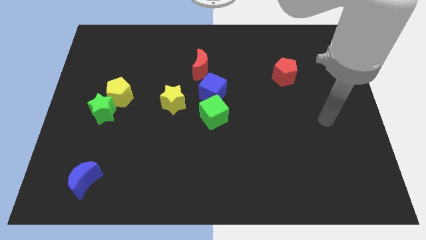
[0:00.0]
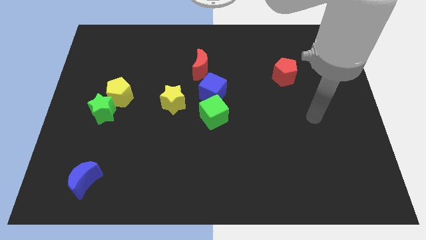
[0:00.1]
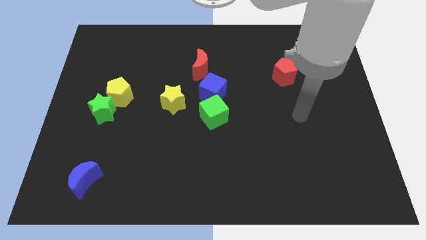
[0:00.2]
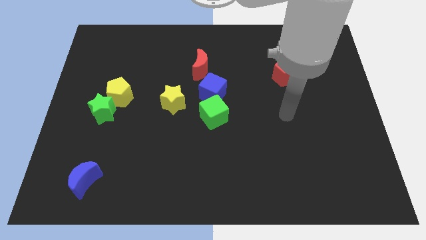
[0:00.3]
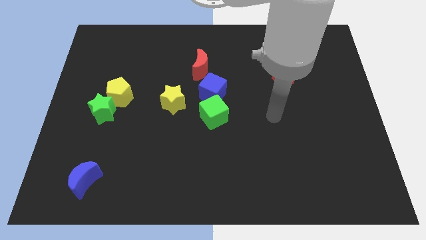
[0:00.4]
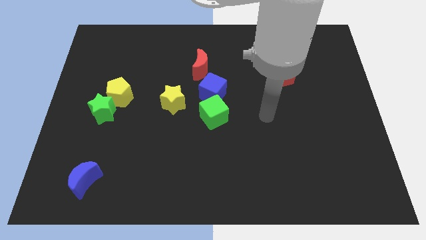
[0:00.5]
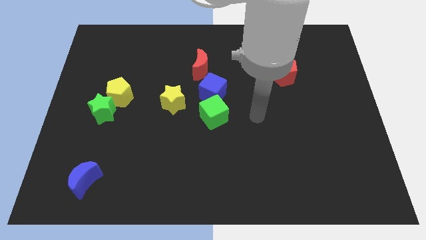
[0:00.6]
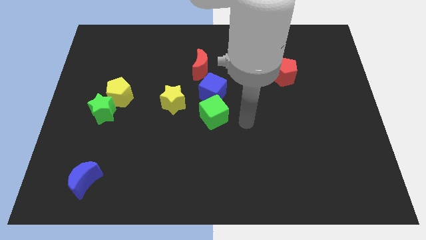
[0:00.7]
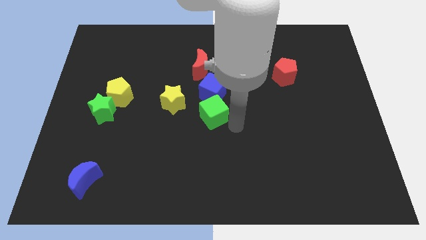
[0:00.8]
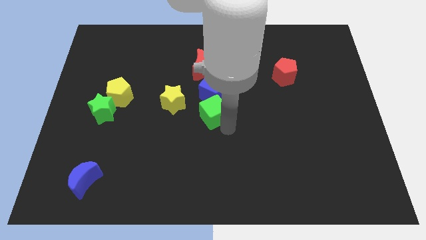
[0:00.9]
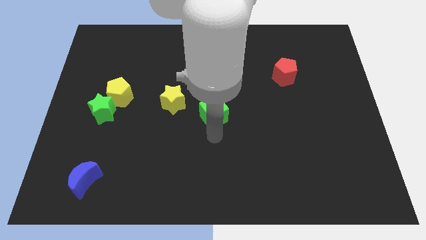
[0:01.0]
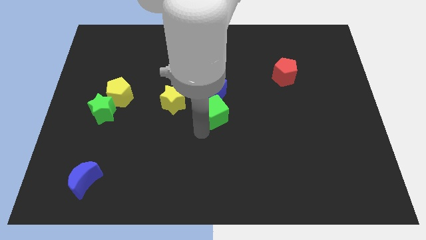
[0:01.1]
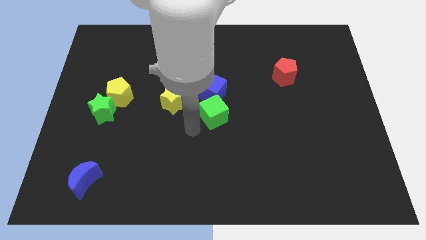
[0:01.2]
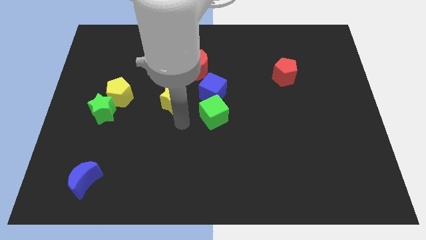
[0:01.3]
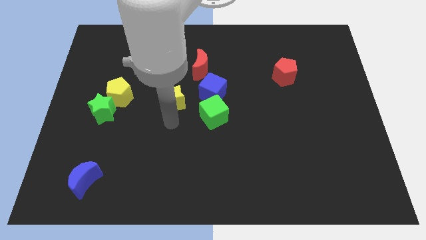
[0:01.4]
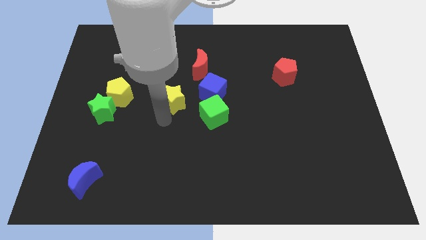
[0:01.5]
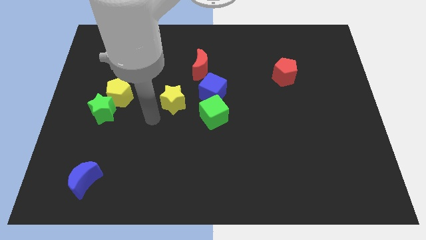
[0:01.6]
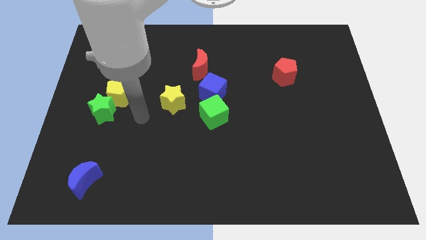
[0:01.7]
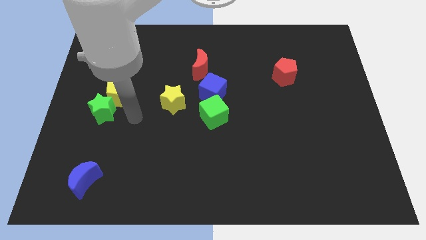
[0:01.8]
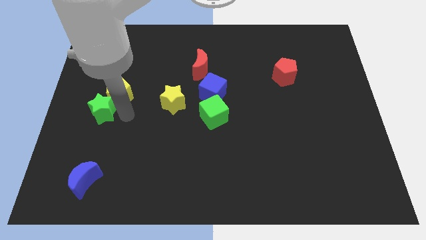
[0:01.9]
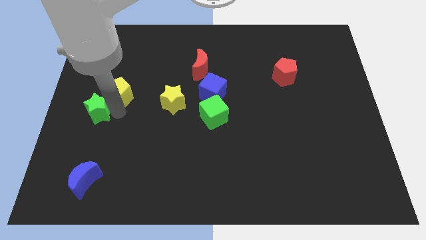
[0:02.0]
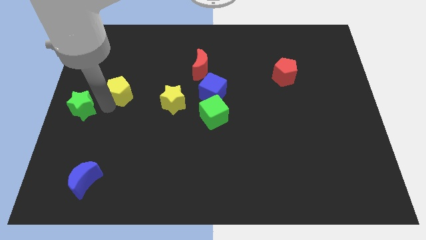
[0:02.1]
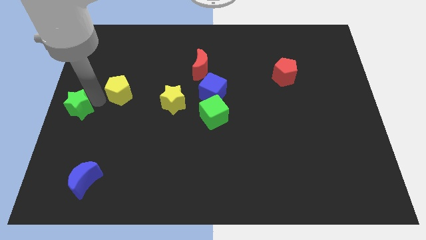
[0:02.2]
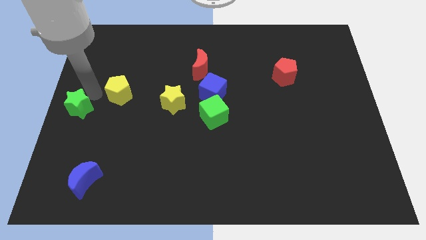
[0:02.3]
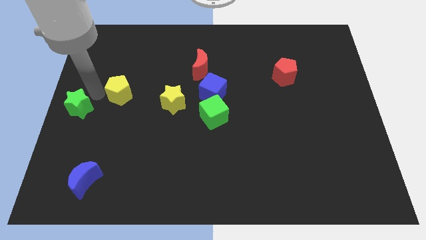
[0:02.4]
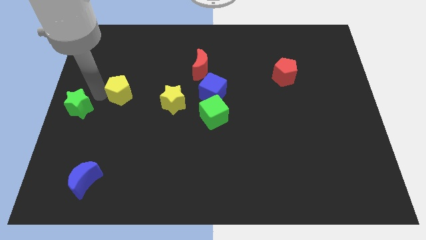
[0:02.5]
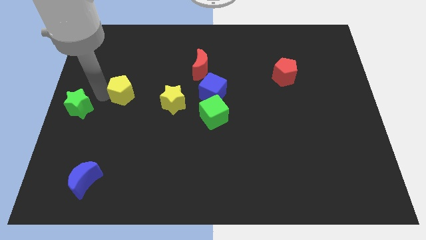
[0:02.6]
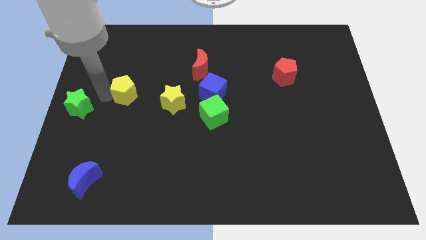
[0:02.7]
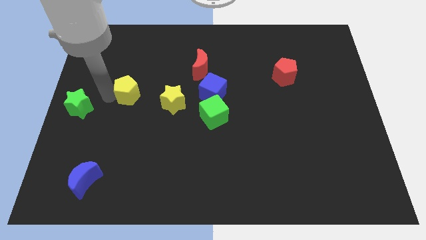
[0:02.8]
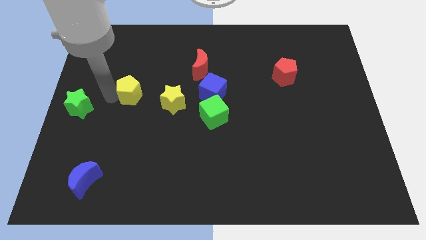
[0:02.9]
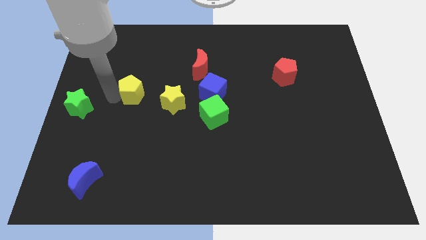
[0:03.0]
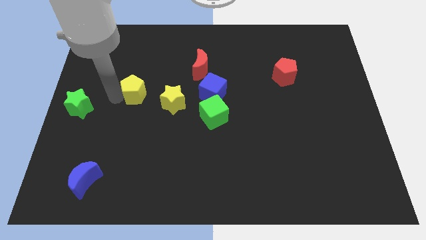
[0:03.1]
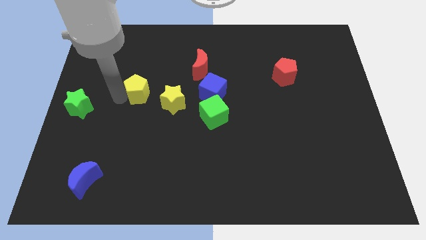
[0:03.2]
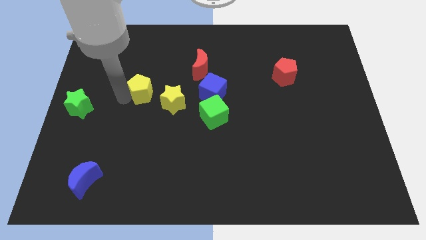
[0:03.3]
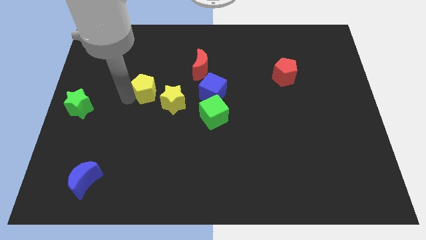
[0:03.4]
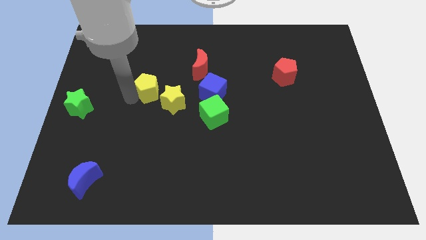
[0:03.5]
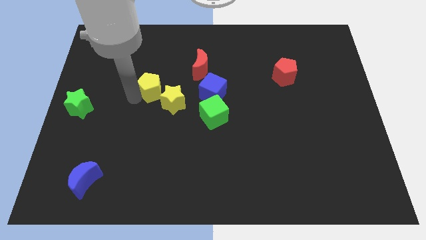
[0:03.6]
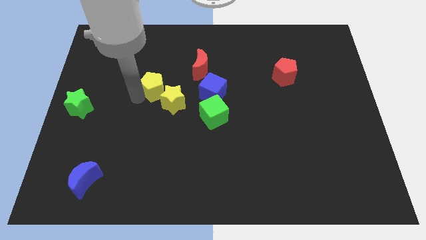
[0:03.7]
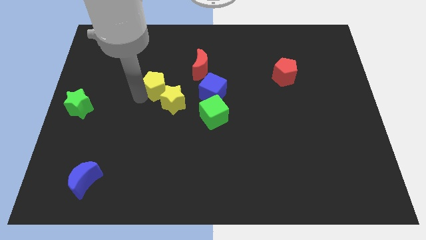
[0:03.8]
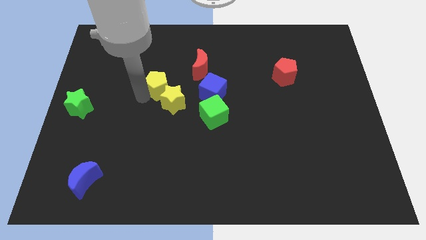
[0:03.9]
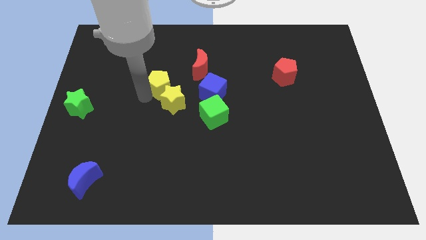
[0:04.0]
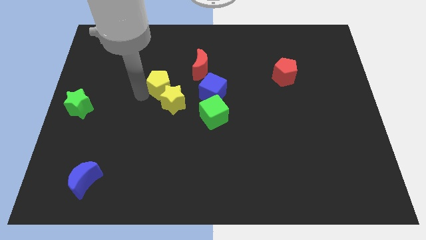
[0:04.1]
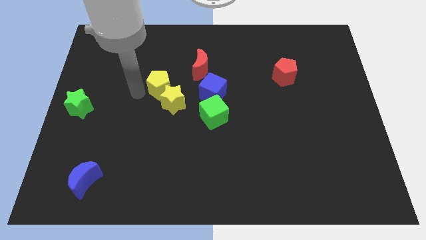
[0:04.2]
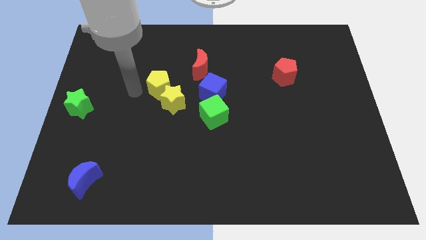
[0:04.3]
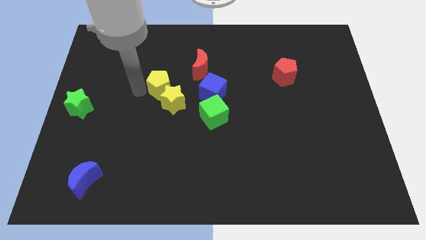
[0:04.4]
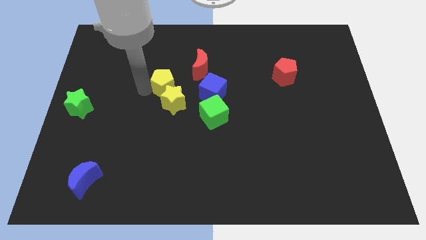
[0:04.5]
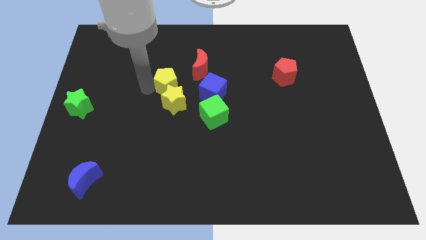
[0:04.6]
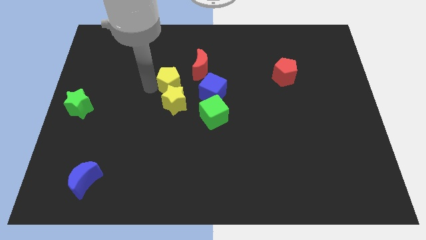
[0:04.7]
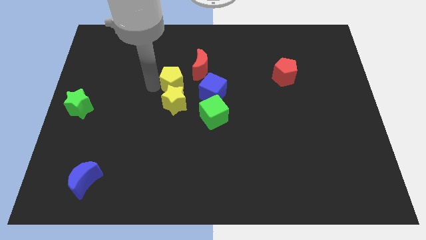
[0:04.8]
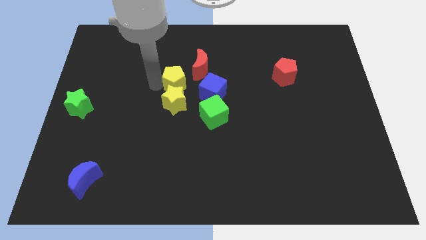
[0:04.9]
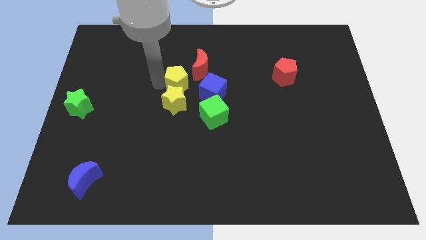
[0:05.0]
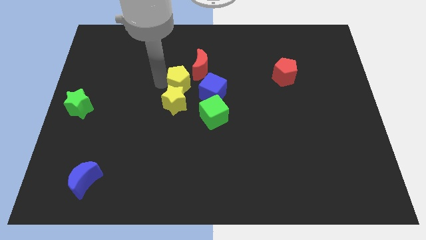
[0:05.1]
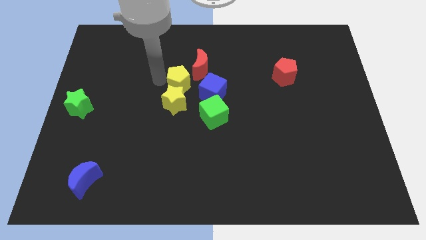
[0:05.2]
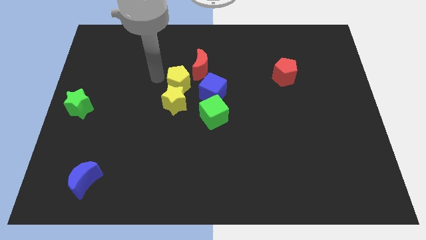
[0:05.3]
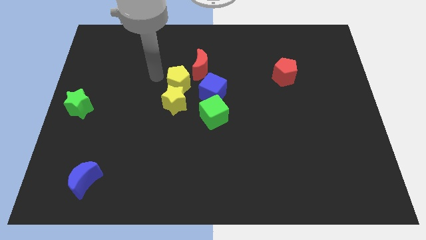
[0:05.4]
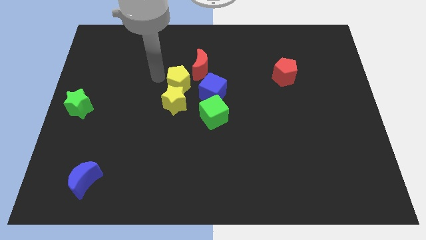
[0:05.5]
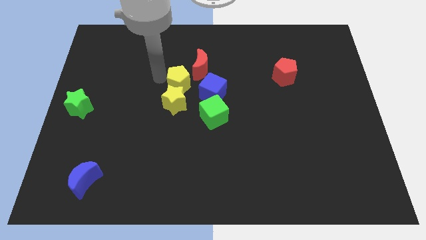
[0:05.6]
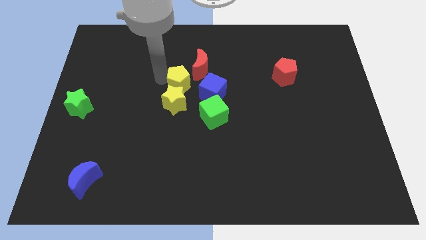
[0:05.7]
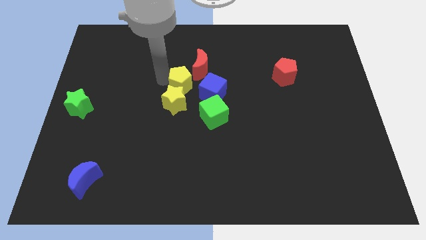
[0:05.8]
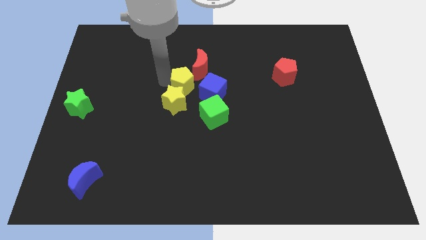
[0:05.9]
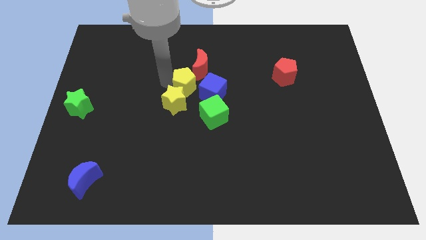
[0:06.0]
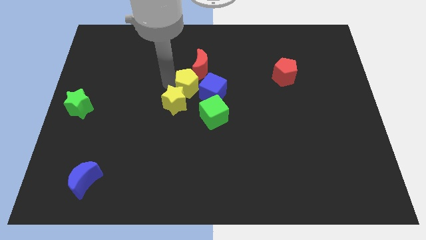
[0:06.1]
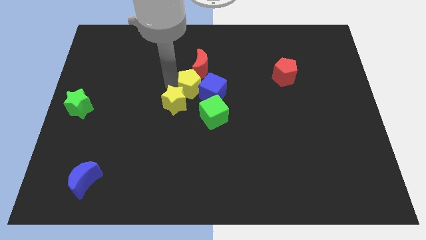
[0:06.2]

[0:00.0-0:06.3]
push the yellow pentagon close to the blue cube

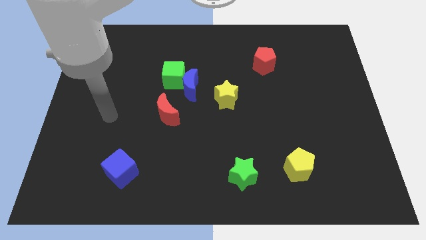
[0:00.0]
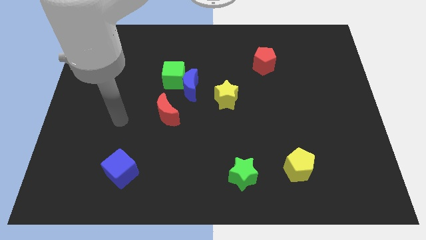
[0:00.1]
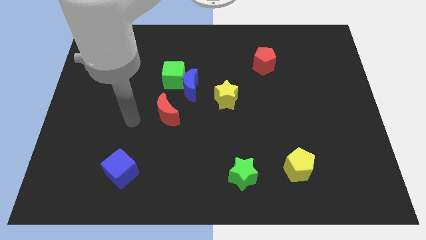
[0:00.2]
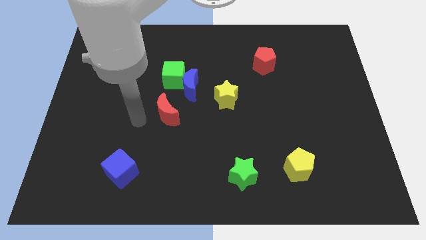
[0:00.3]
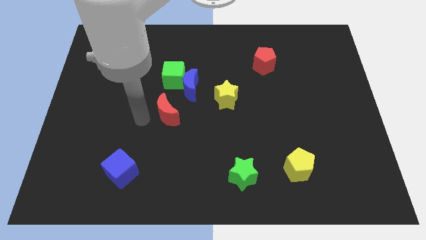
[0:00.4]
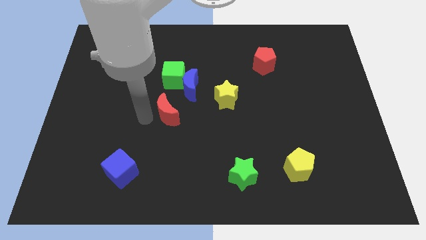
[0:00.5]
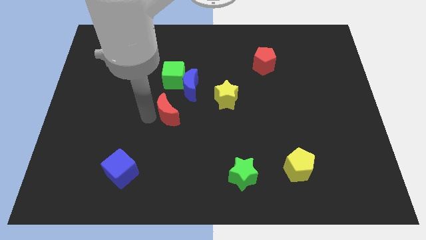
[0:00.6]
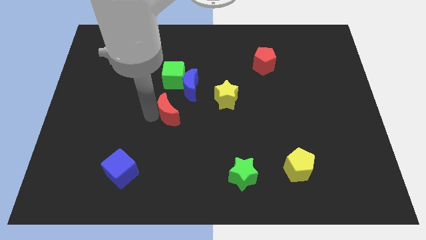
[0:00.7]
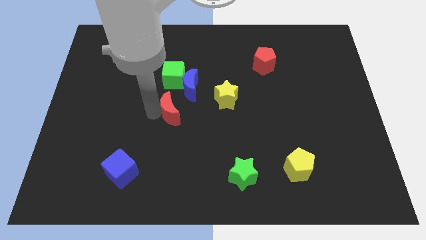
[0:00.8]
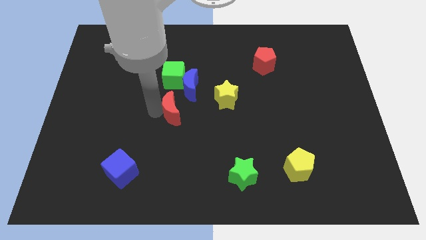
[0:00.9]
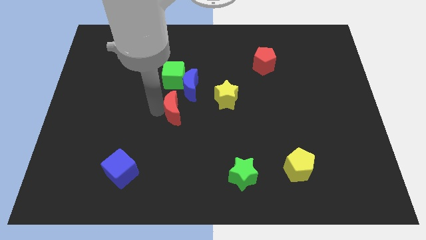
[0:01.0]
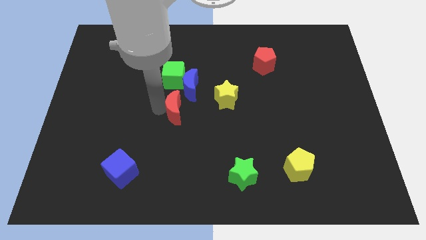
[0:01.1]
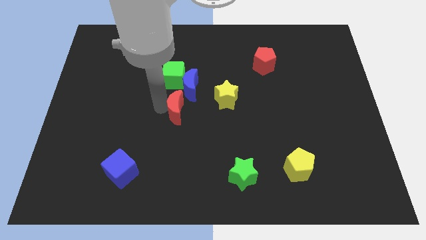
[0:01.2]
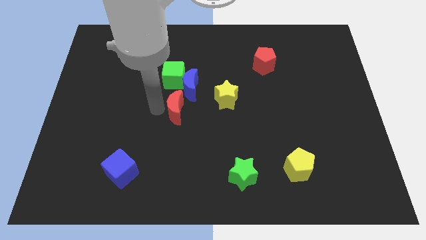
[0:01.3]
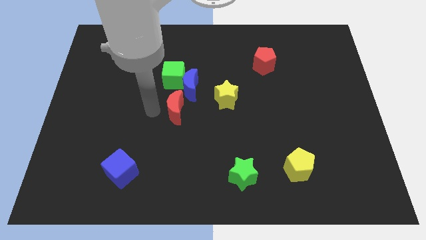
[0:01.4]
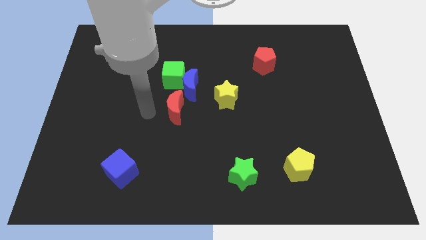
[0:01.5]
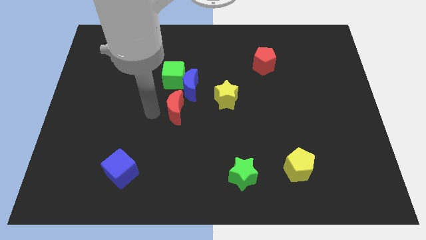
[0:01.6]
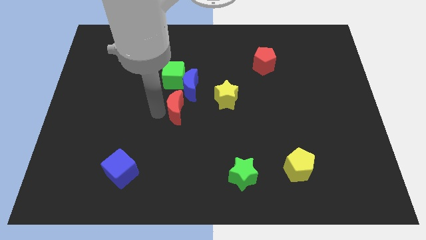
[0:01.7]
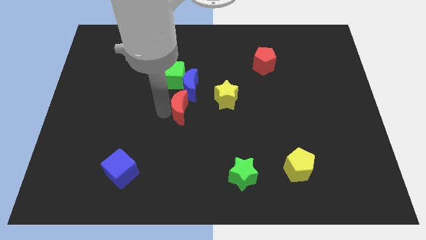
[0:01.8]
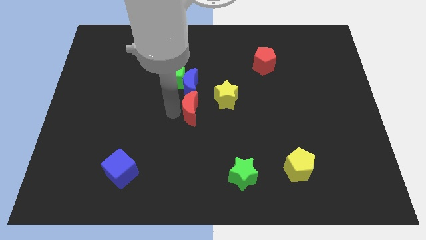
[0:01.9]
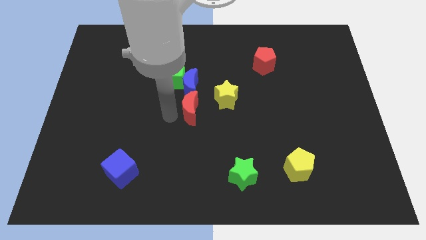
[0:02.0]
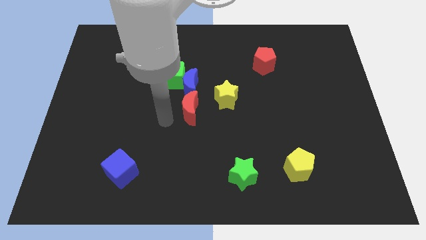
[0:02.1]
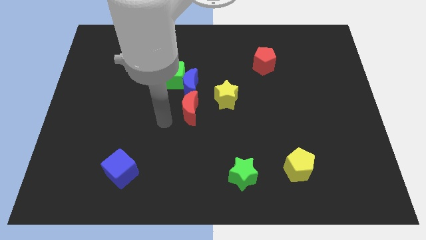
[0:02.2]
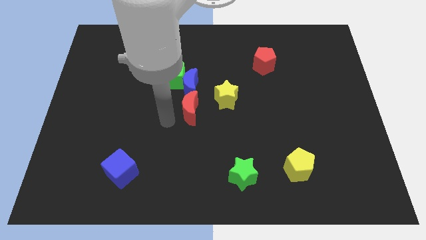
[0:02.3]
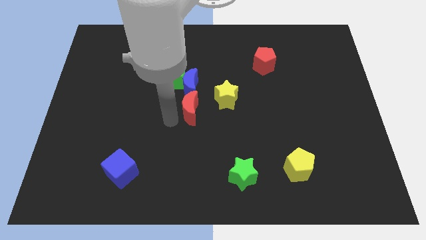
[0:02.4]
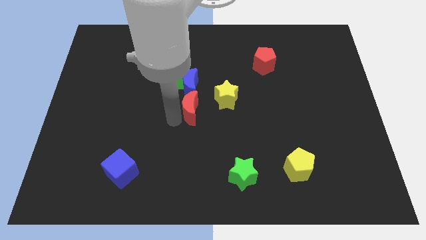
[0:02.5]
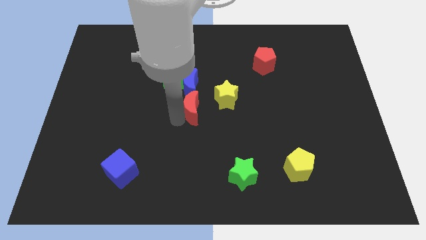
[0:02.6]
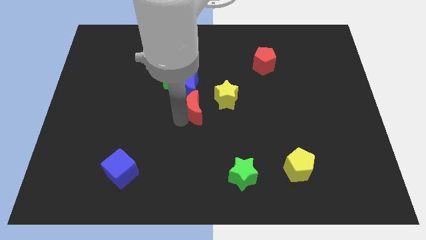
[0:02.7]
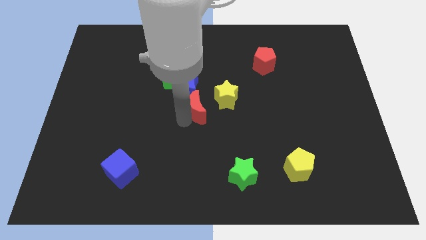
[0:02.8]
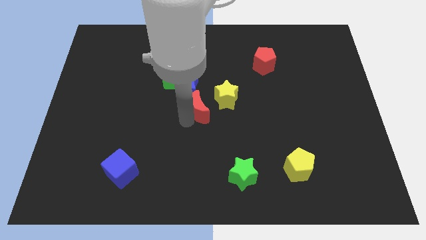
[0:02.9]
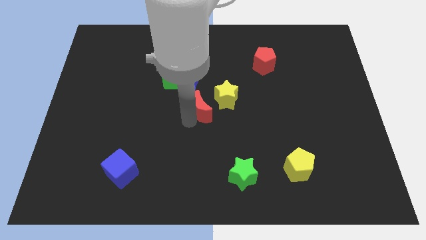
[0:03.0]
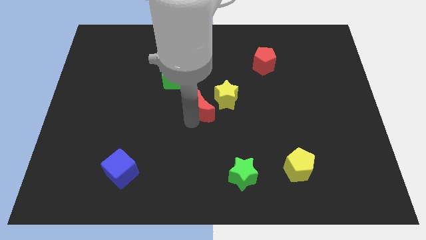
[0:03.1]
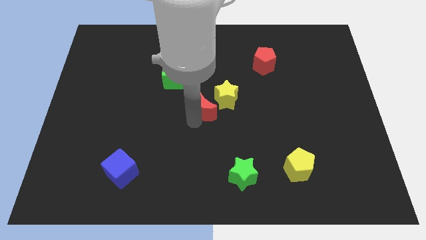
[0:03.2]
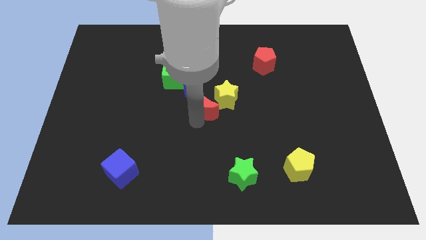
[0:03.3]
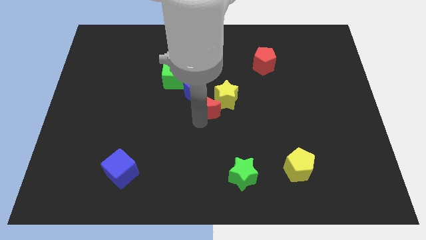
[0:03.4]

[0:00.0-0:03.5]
move the red moon towards the yellow star
